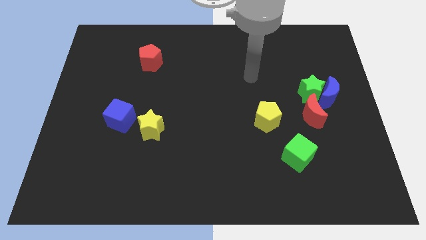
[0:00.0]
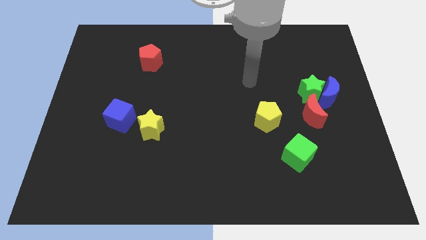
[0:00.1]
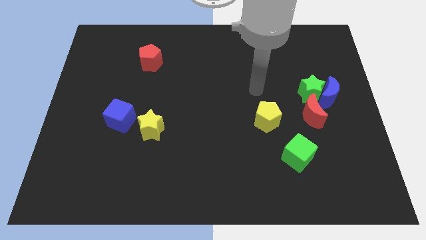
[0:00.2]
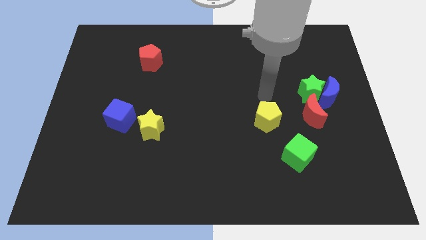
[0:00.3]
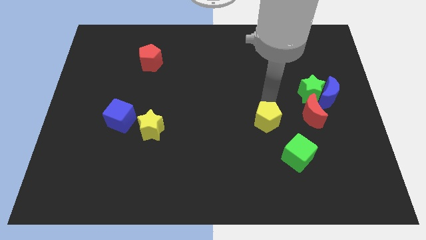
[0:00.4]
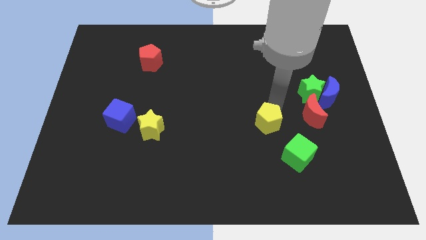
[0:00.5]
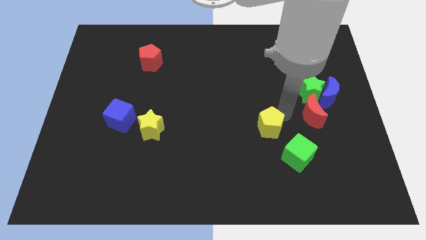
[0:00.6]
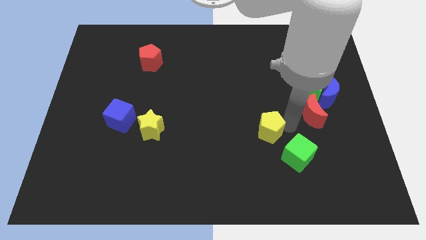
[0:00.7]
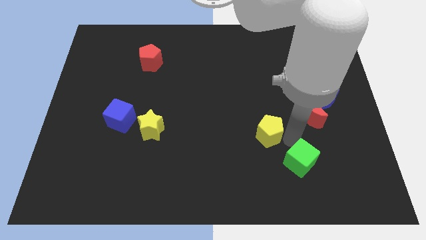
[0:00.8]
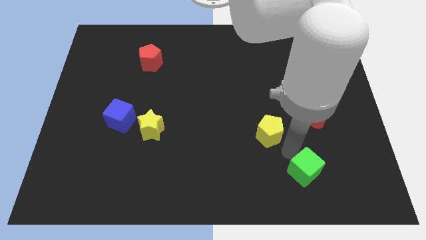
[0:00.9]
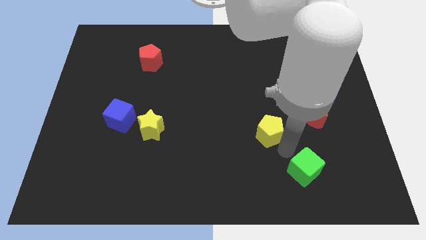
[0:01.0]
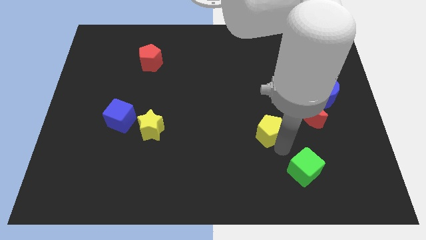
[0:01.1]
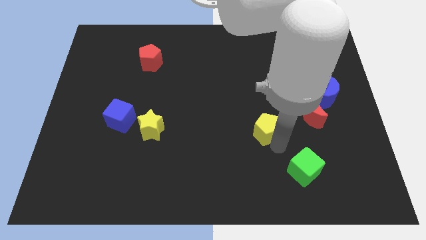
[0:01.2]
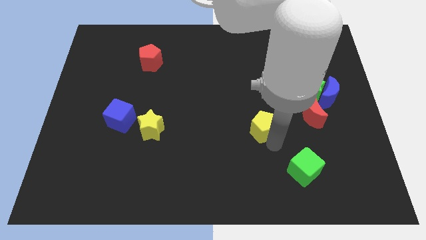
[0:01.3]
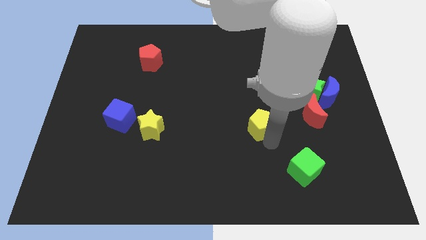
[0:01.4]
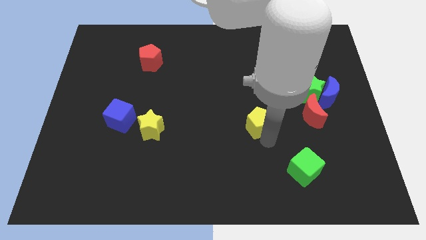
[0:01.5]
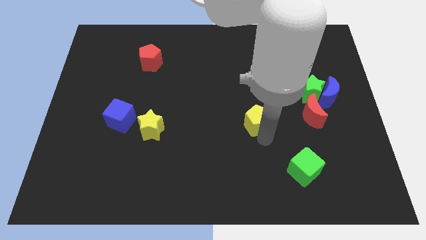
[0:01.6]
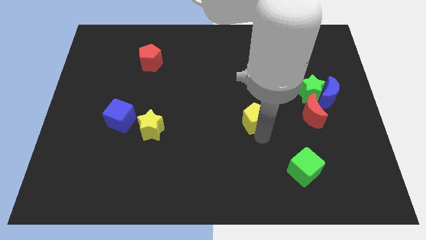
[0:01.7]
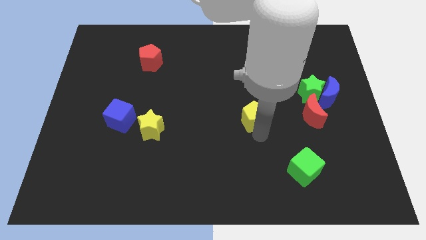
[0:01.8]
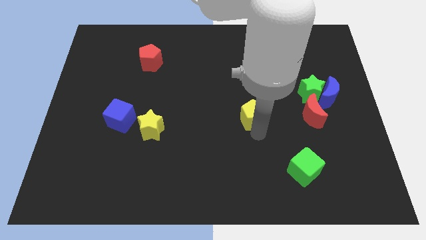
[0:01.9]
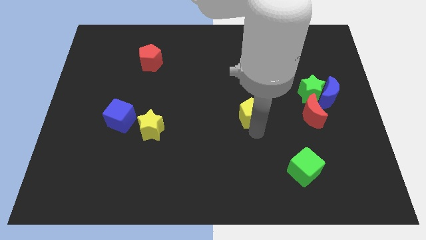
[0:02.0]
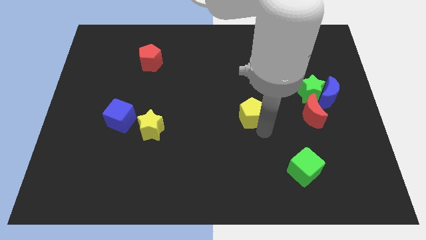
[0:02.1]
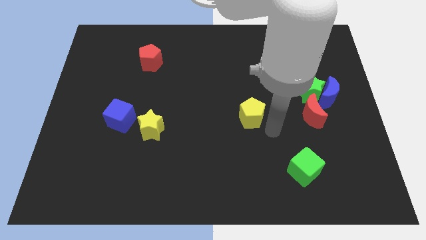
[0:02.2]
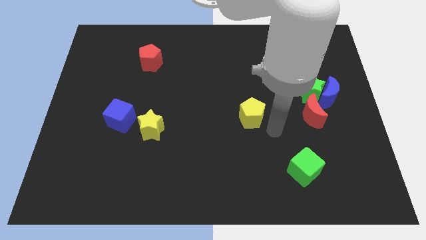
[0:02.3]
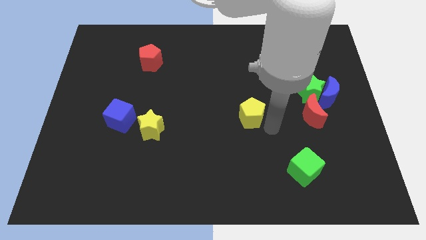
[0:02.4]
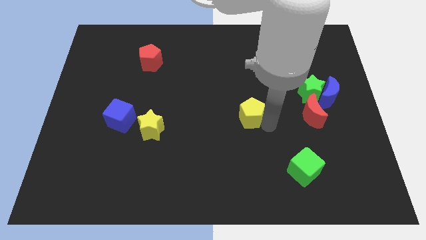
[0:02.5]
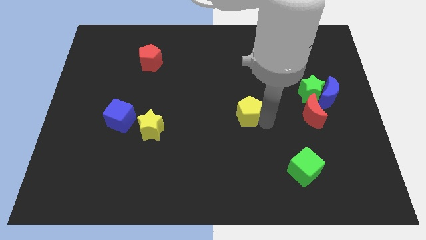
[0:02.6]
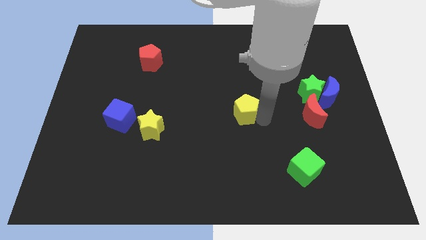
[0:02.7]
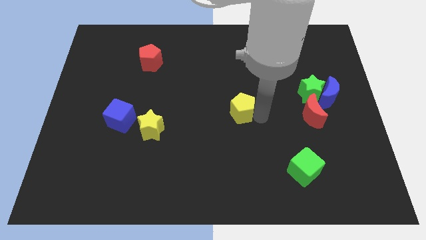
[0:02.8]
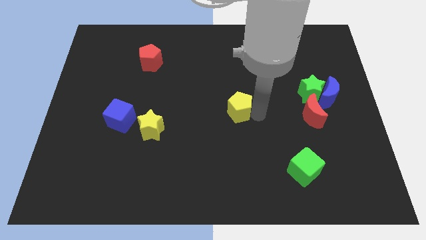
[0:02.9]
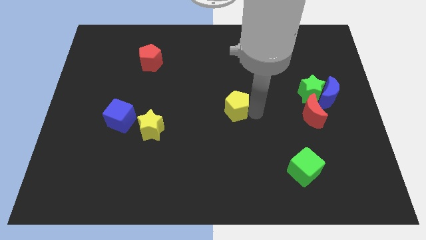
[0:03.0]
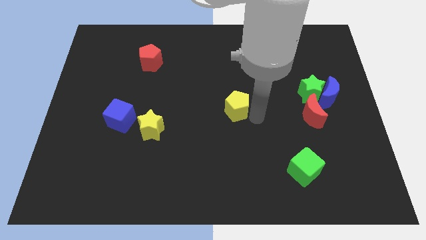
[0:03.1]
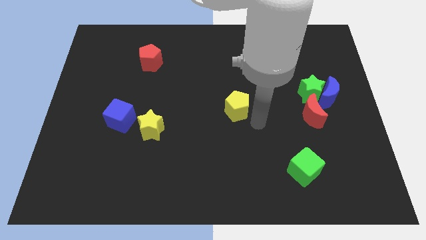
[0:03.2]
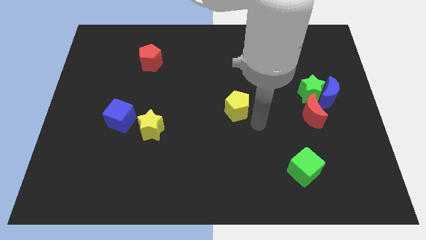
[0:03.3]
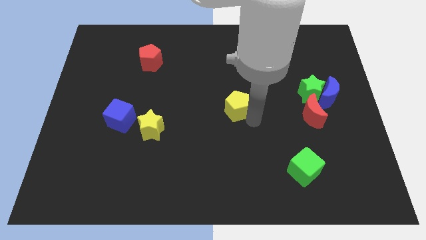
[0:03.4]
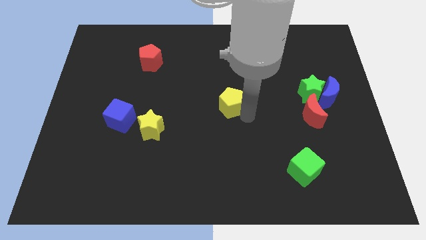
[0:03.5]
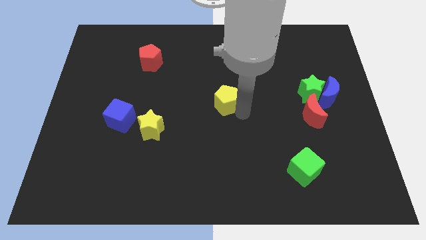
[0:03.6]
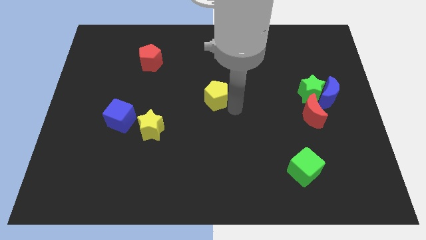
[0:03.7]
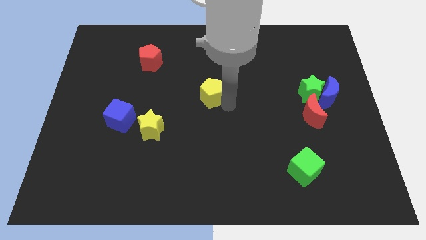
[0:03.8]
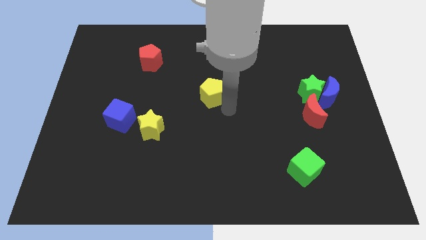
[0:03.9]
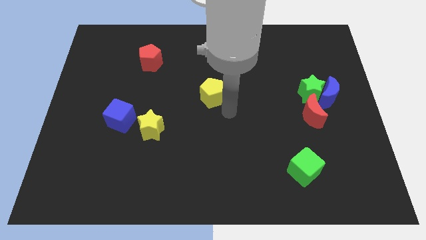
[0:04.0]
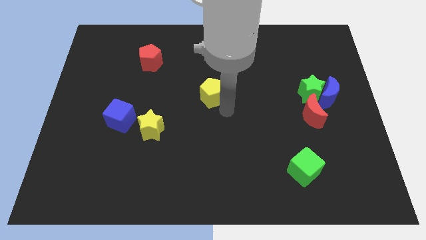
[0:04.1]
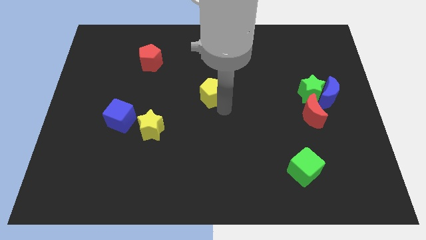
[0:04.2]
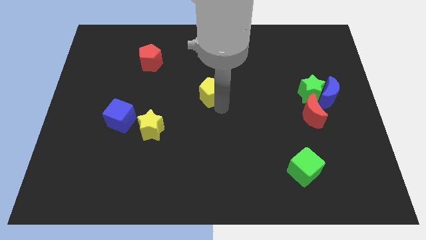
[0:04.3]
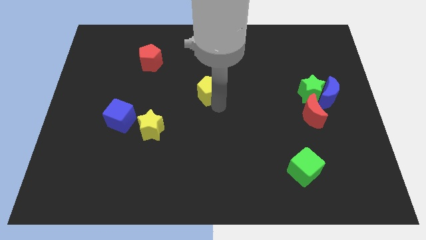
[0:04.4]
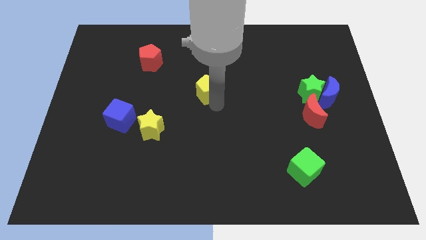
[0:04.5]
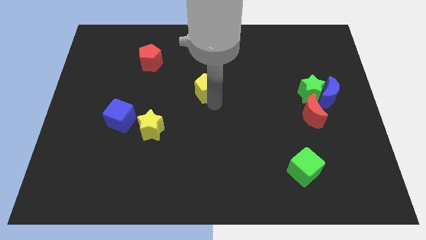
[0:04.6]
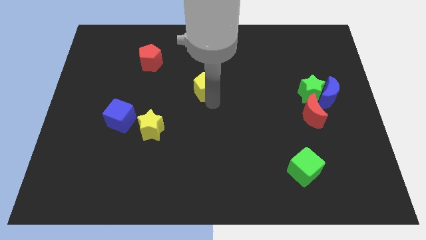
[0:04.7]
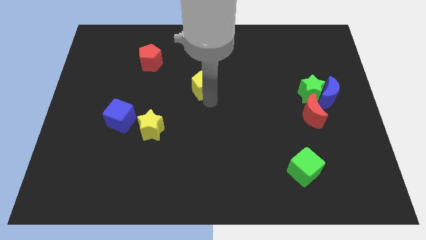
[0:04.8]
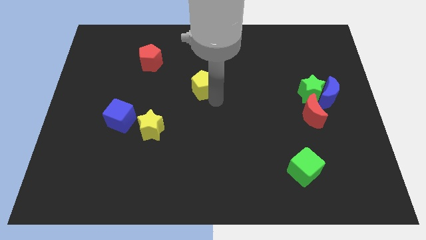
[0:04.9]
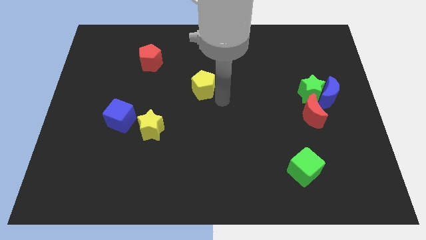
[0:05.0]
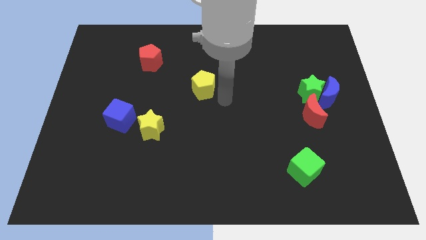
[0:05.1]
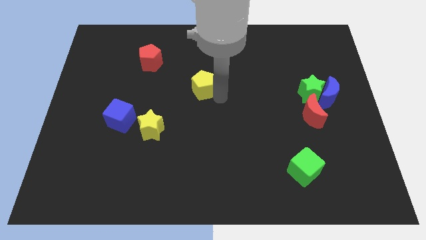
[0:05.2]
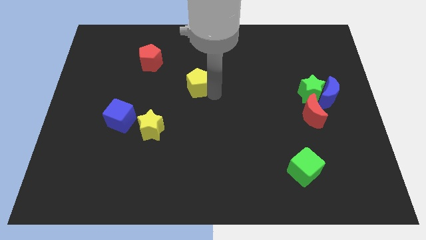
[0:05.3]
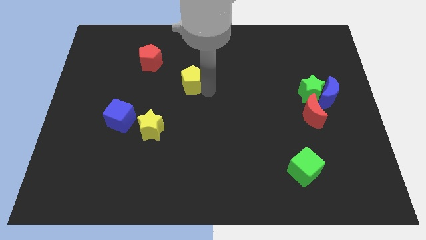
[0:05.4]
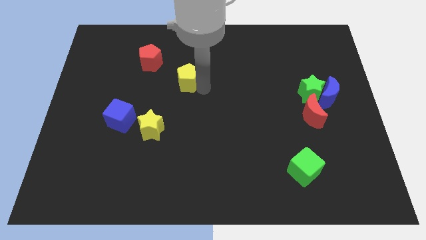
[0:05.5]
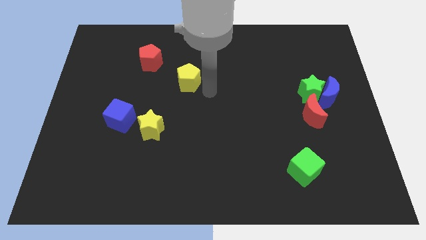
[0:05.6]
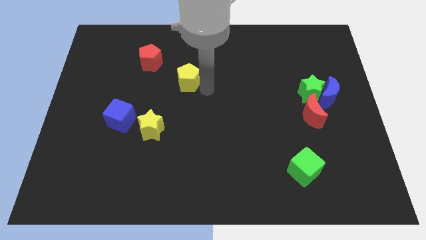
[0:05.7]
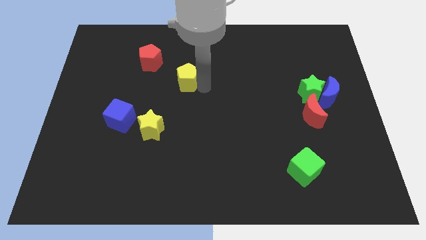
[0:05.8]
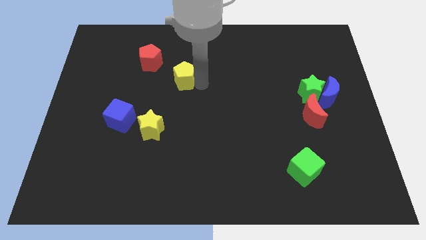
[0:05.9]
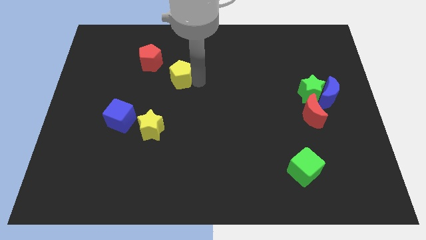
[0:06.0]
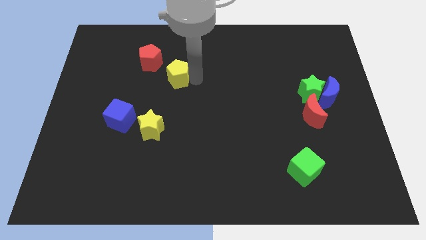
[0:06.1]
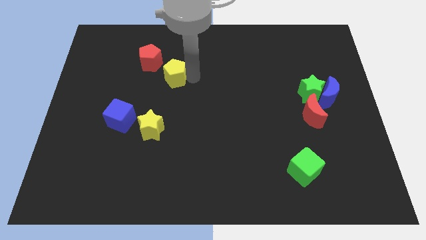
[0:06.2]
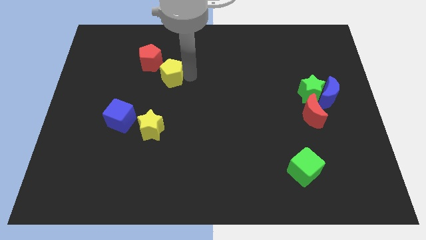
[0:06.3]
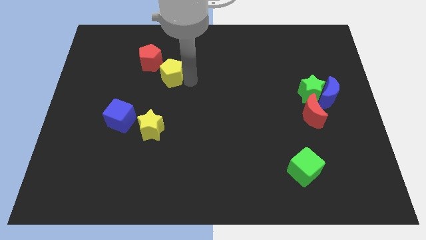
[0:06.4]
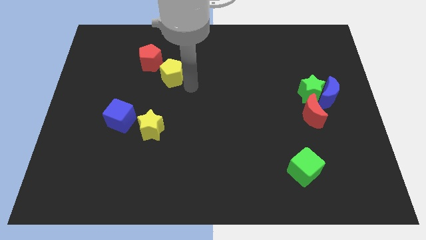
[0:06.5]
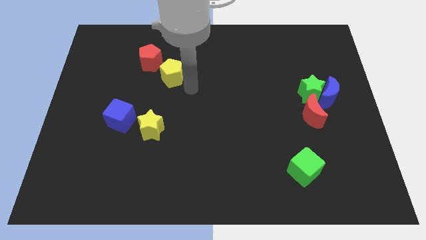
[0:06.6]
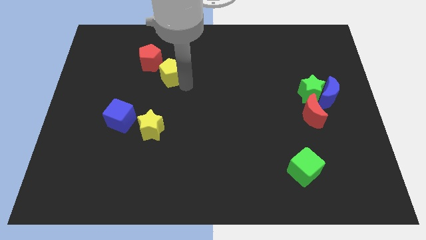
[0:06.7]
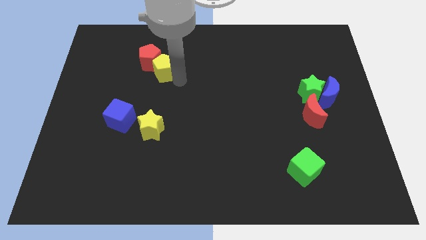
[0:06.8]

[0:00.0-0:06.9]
slide the yellow pentagon close to the red pentagon
